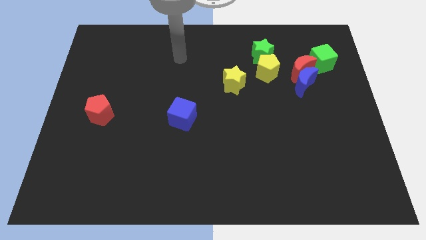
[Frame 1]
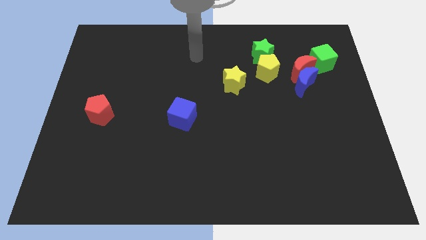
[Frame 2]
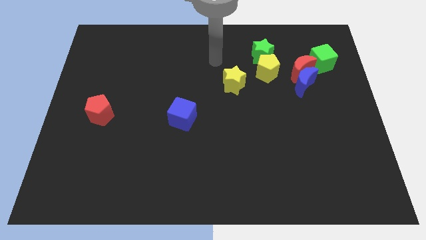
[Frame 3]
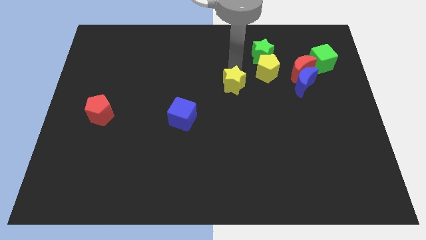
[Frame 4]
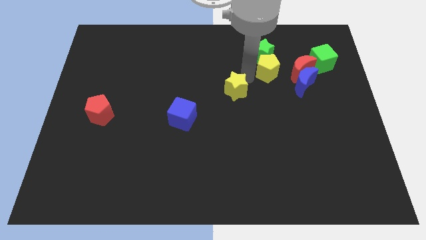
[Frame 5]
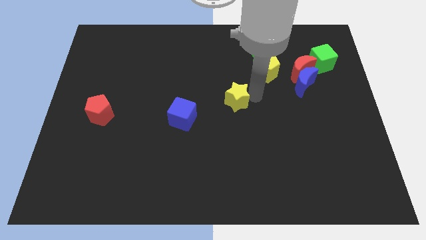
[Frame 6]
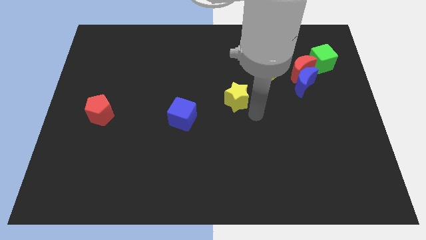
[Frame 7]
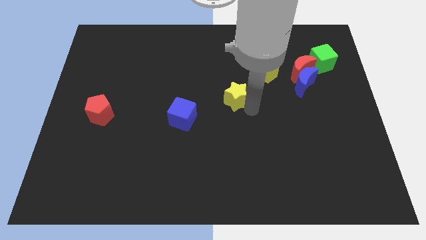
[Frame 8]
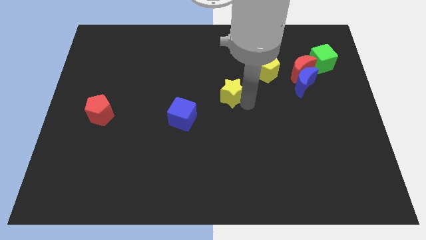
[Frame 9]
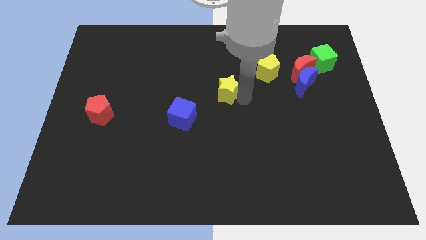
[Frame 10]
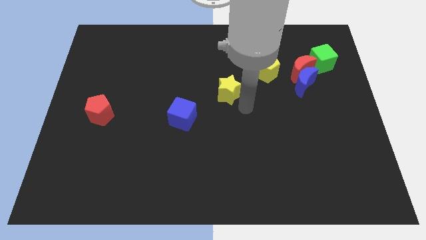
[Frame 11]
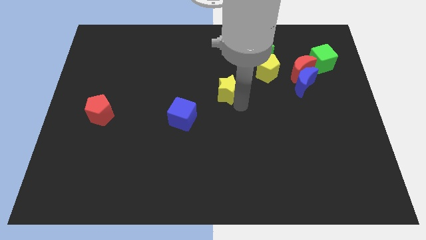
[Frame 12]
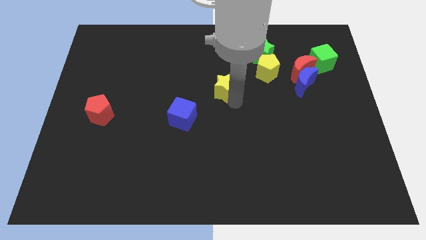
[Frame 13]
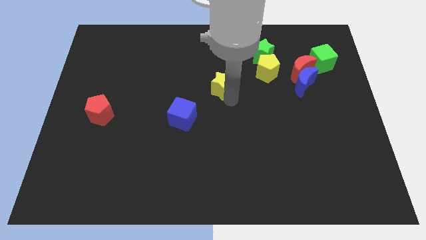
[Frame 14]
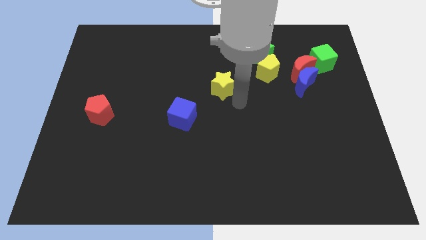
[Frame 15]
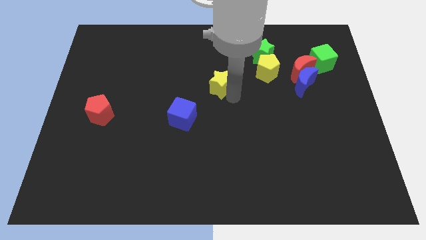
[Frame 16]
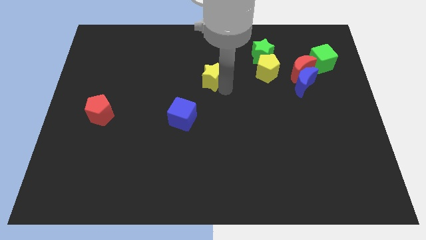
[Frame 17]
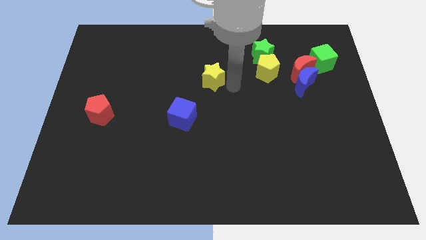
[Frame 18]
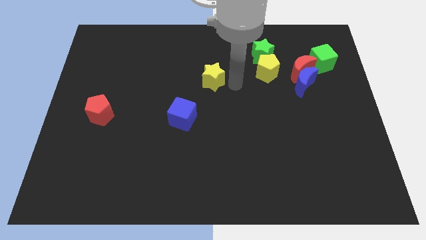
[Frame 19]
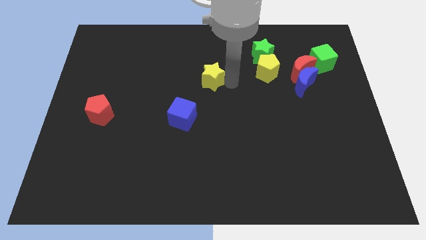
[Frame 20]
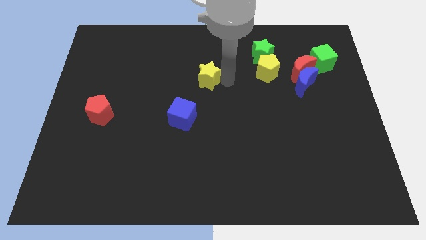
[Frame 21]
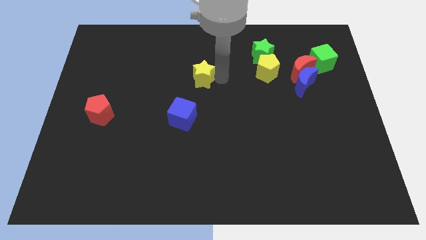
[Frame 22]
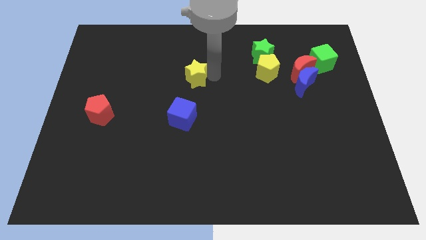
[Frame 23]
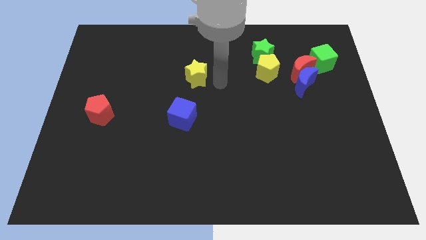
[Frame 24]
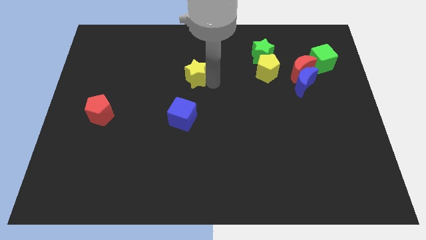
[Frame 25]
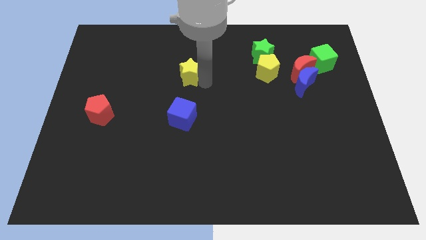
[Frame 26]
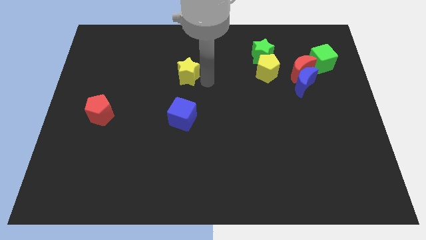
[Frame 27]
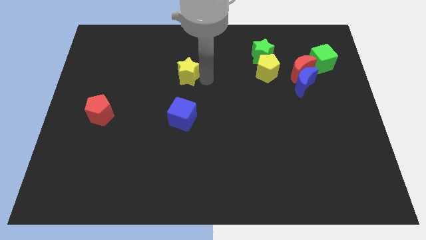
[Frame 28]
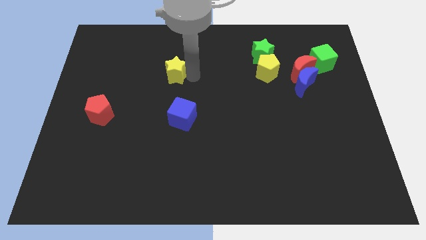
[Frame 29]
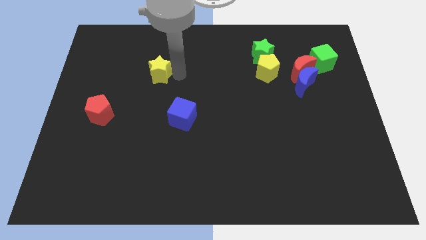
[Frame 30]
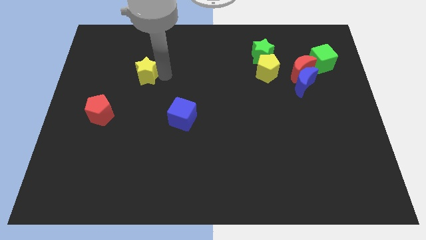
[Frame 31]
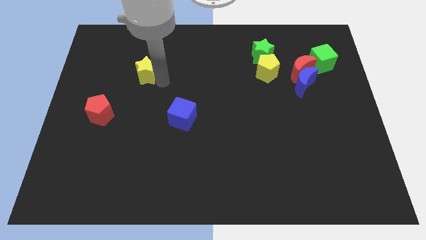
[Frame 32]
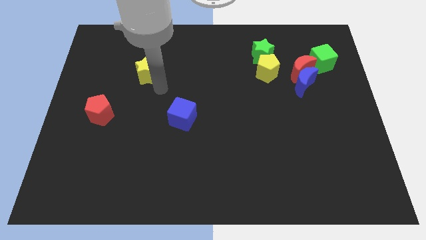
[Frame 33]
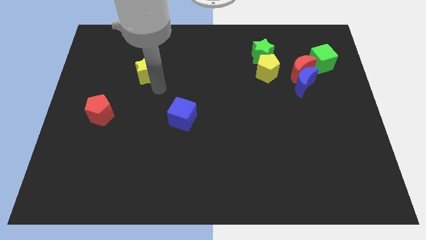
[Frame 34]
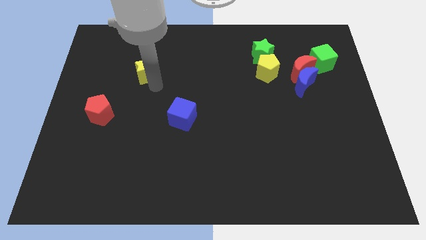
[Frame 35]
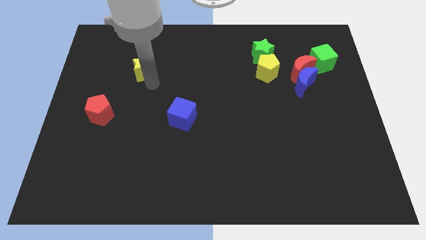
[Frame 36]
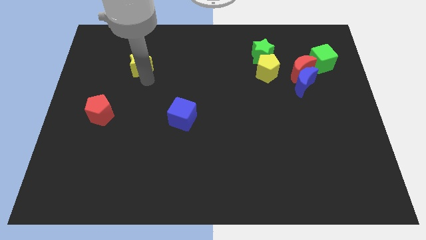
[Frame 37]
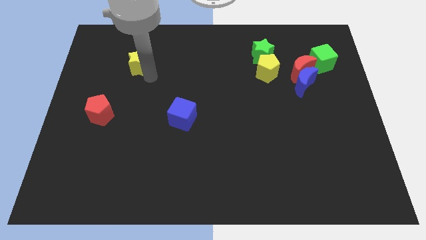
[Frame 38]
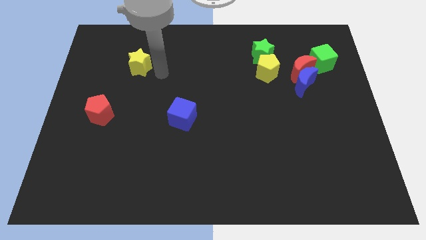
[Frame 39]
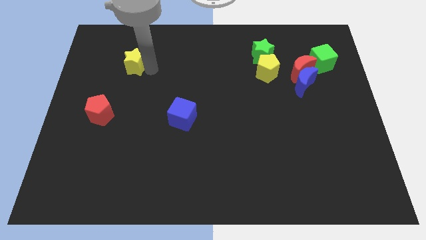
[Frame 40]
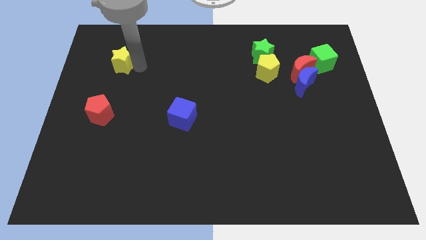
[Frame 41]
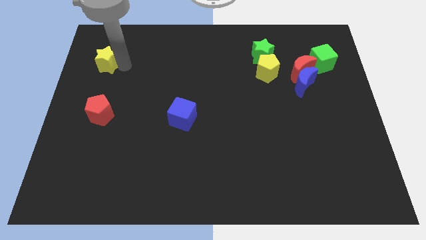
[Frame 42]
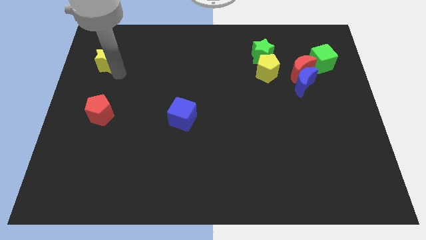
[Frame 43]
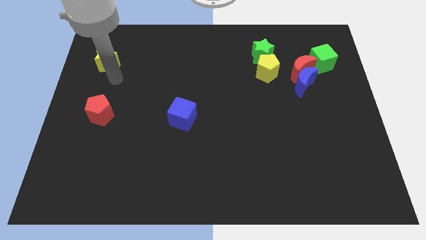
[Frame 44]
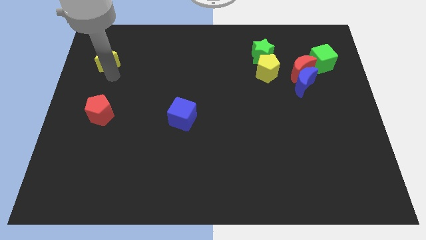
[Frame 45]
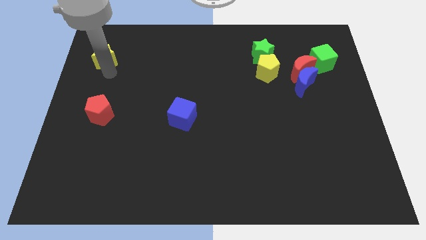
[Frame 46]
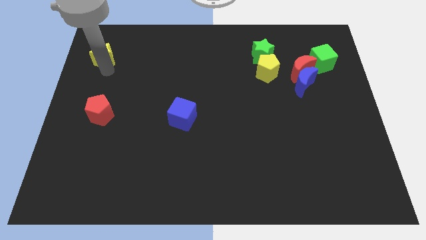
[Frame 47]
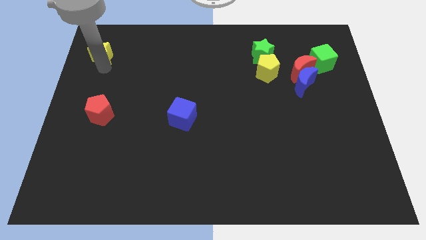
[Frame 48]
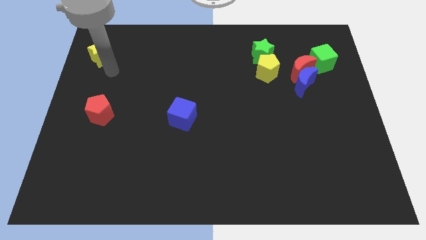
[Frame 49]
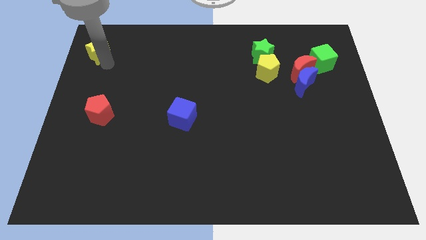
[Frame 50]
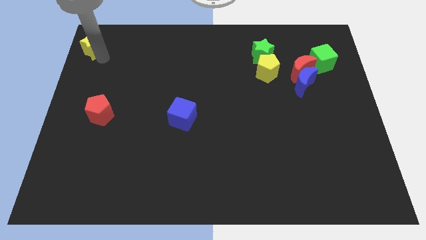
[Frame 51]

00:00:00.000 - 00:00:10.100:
put the yellow star to the top left of the board

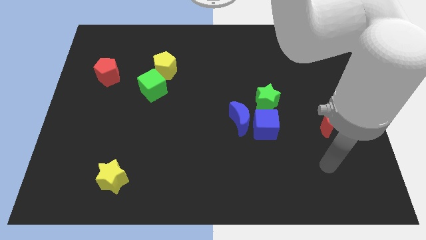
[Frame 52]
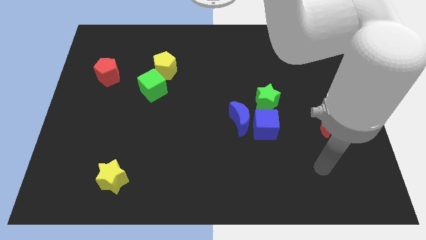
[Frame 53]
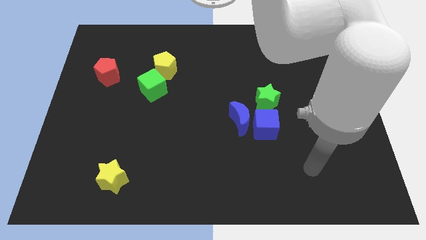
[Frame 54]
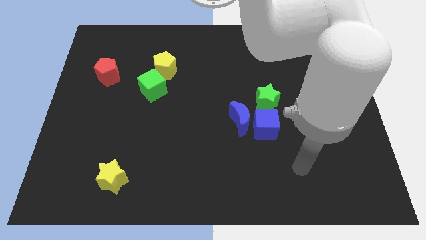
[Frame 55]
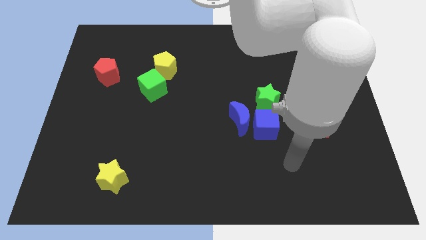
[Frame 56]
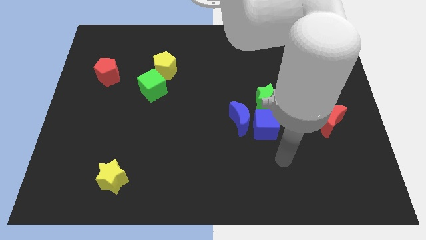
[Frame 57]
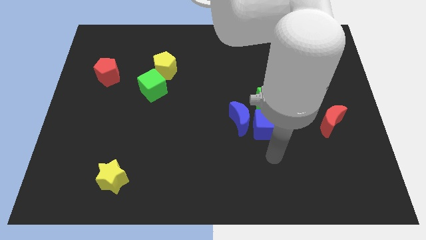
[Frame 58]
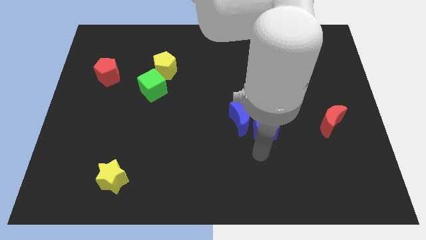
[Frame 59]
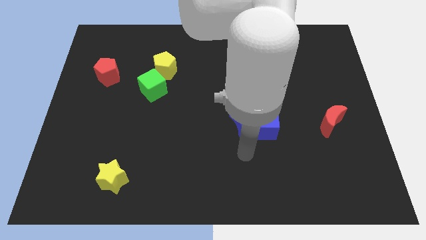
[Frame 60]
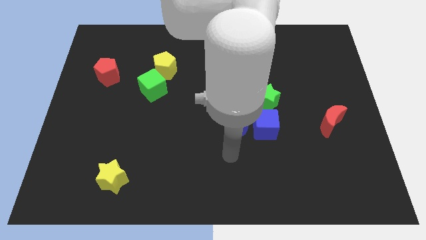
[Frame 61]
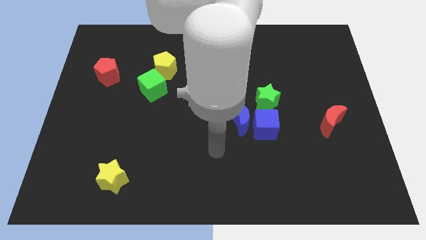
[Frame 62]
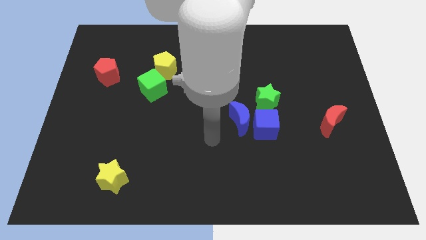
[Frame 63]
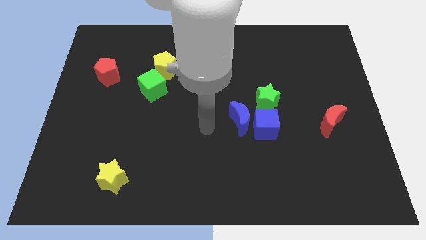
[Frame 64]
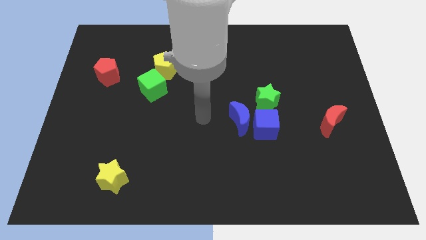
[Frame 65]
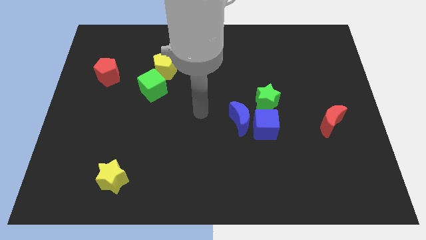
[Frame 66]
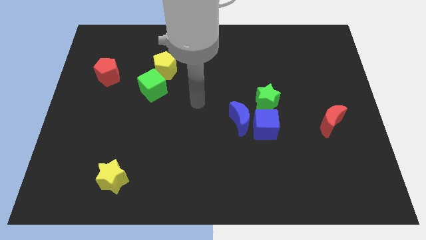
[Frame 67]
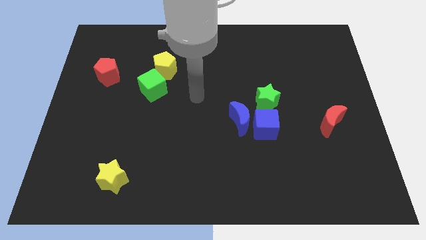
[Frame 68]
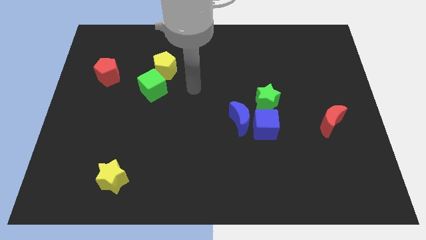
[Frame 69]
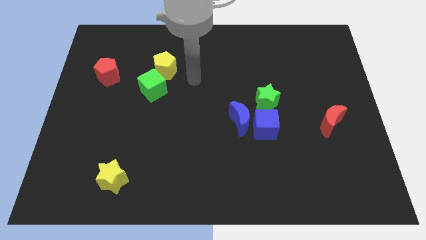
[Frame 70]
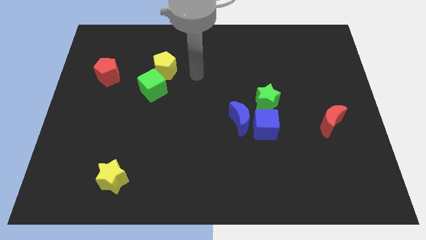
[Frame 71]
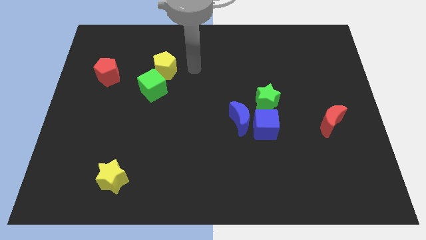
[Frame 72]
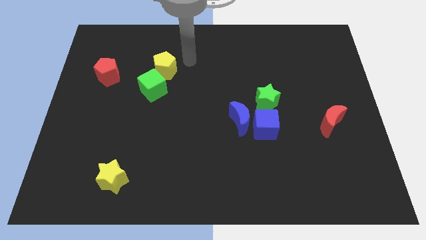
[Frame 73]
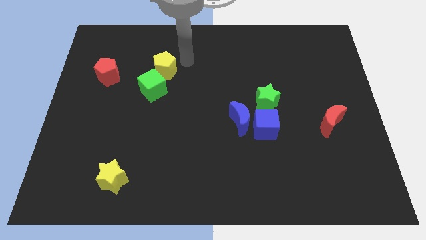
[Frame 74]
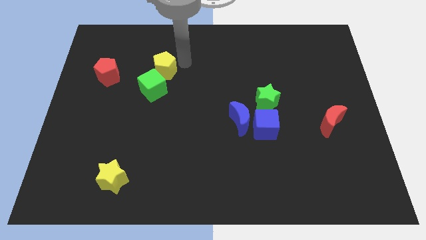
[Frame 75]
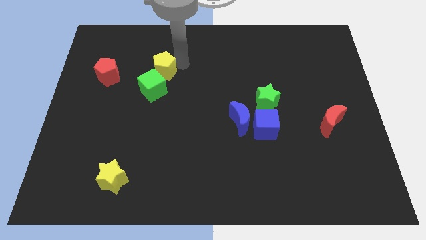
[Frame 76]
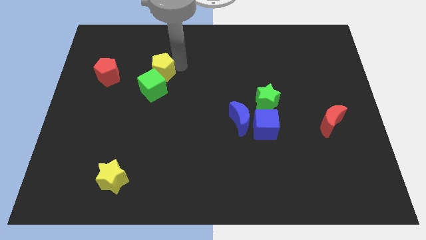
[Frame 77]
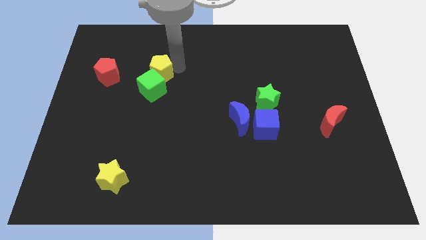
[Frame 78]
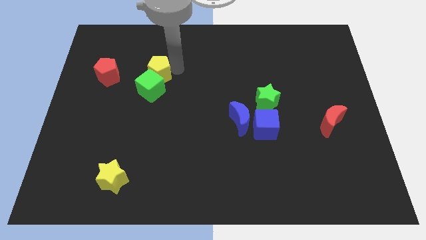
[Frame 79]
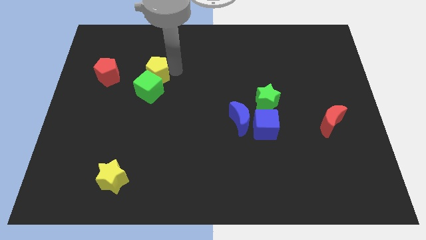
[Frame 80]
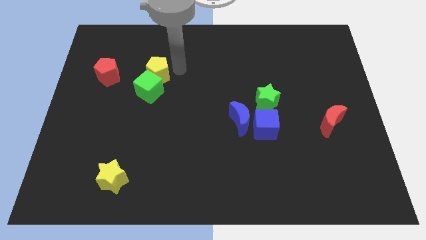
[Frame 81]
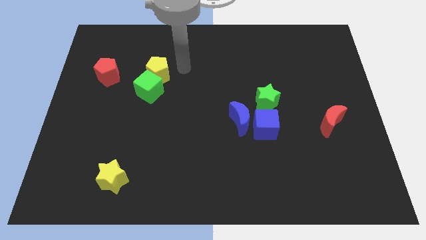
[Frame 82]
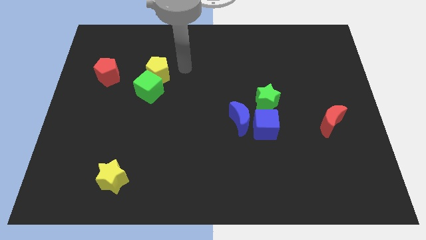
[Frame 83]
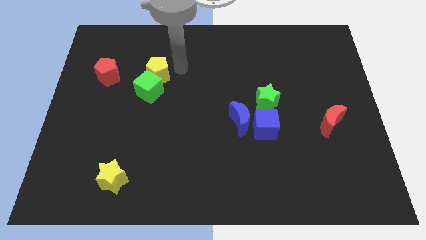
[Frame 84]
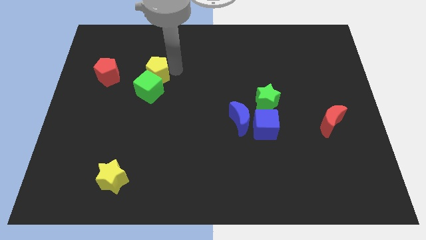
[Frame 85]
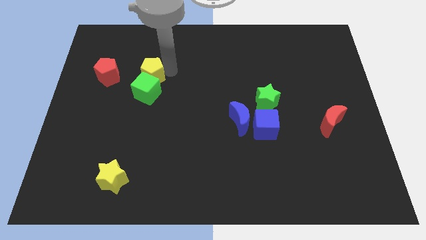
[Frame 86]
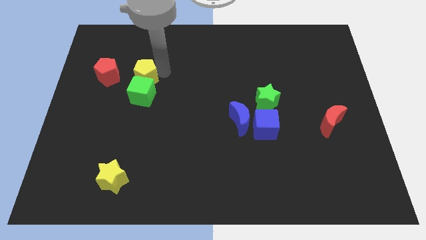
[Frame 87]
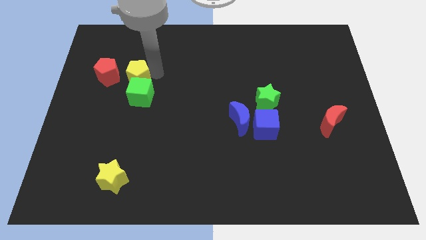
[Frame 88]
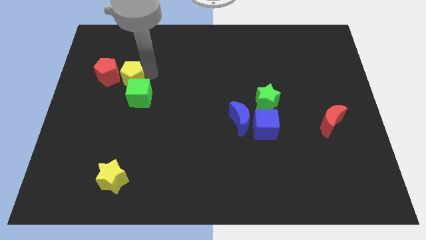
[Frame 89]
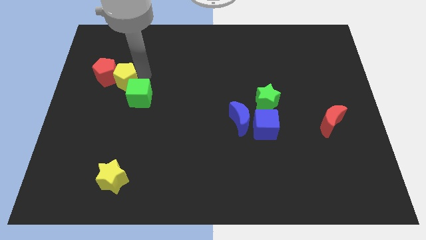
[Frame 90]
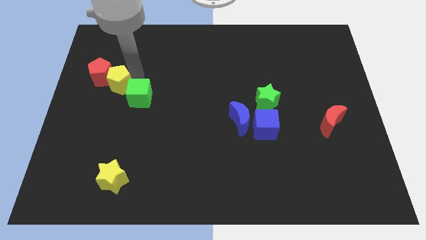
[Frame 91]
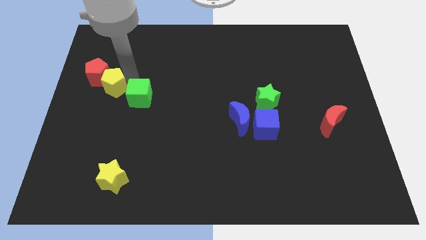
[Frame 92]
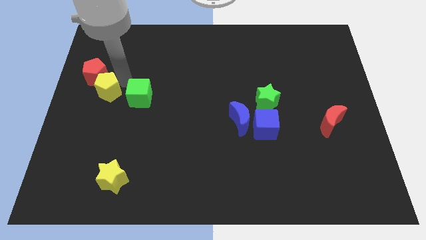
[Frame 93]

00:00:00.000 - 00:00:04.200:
put the yellow pentagon to the left side
